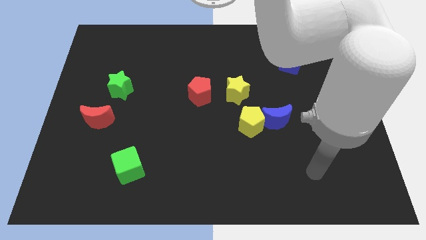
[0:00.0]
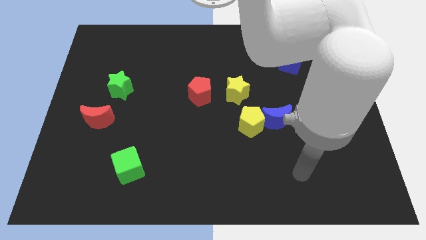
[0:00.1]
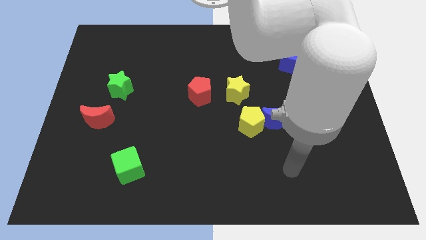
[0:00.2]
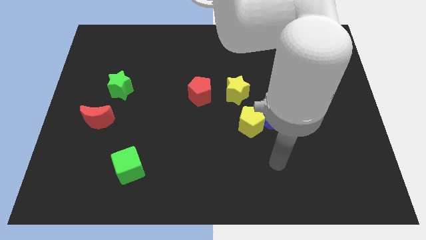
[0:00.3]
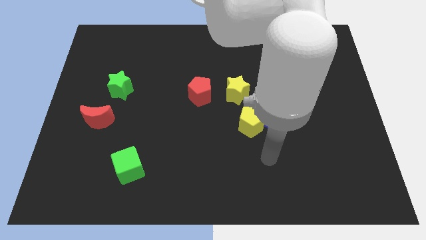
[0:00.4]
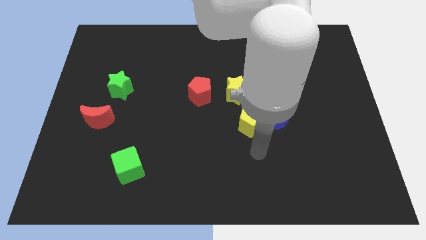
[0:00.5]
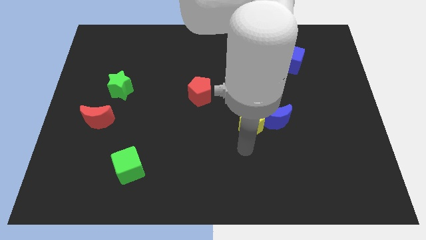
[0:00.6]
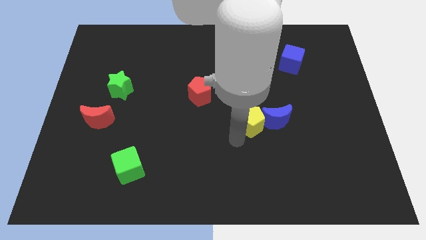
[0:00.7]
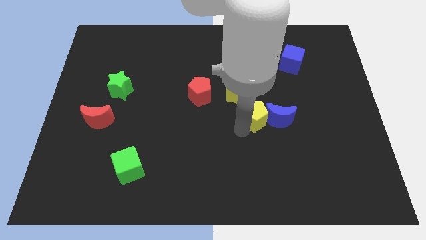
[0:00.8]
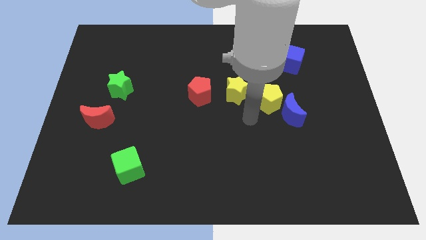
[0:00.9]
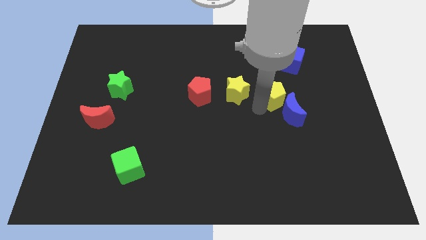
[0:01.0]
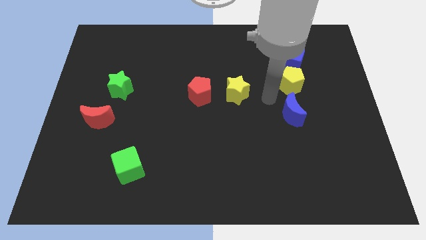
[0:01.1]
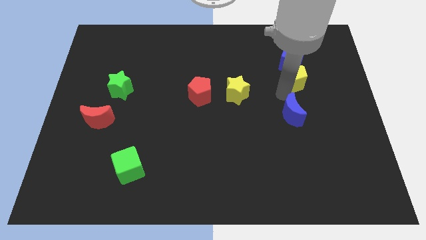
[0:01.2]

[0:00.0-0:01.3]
move the blue moon away from the yellow pentagon

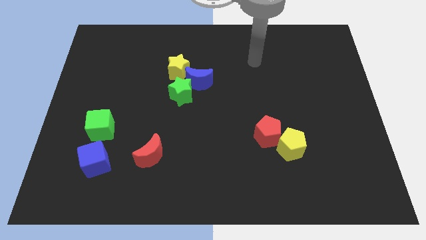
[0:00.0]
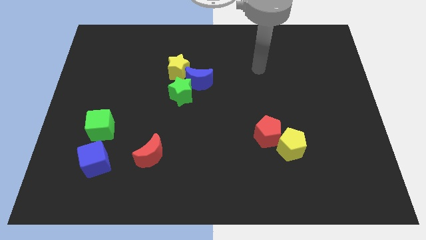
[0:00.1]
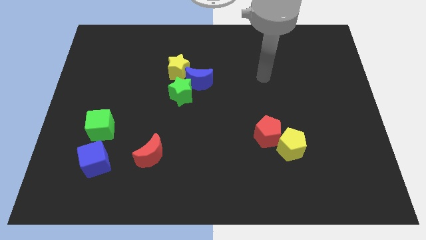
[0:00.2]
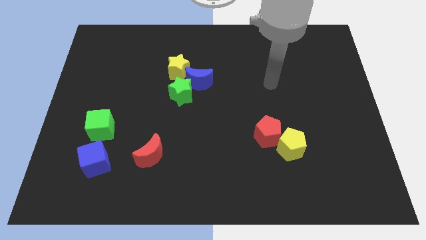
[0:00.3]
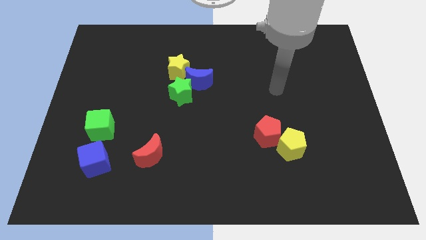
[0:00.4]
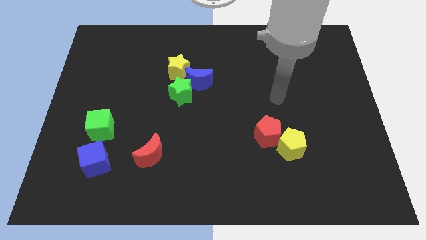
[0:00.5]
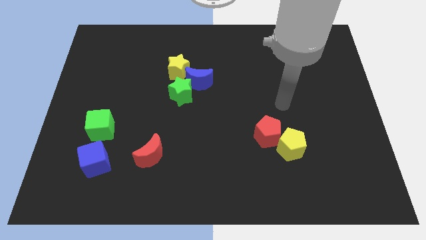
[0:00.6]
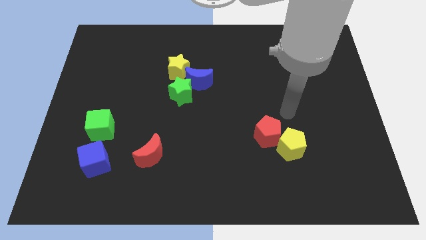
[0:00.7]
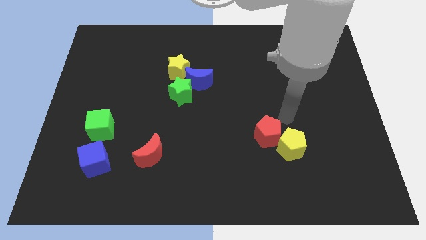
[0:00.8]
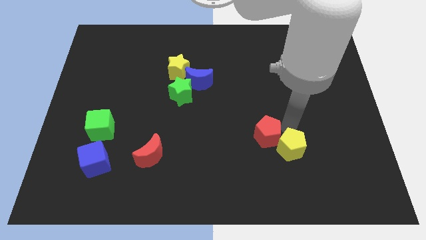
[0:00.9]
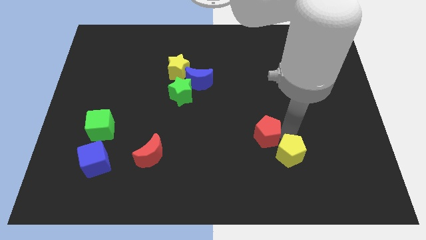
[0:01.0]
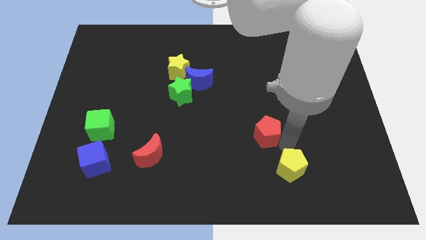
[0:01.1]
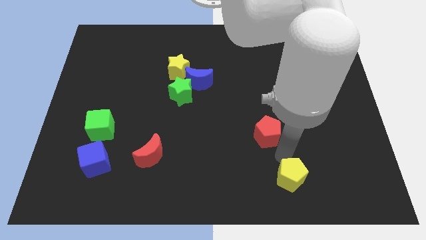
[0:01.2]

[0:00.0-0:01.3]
separate the red pentagon from the yellow pentagon

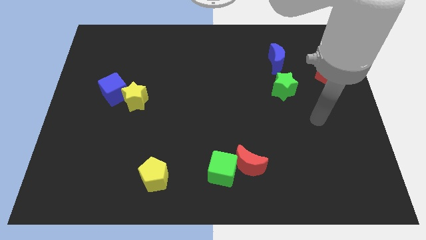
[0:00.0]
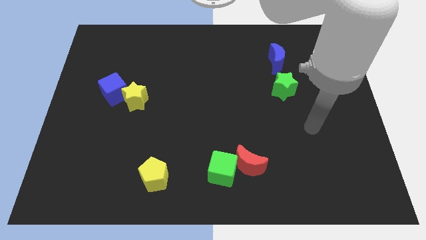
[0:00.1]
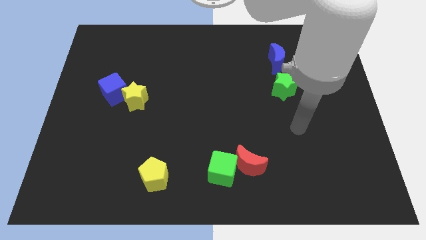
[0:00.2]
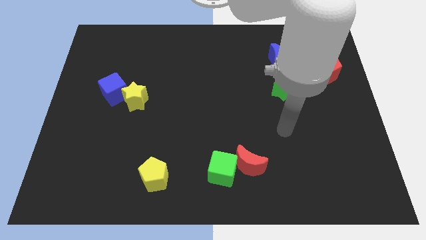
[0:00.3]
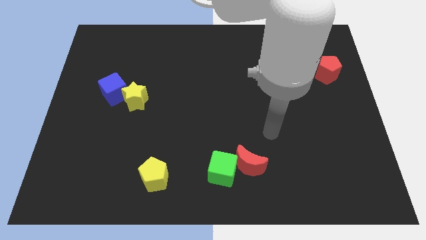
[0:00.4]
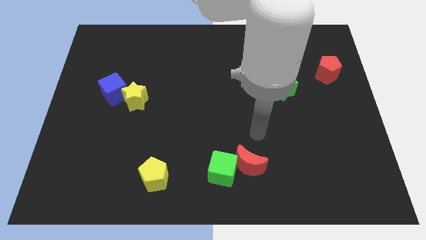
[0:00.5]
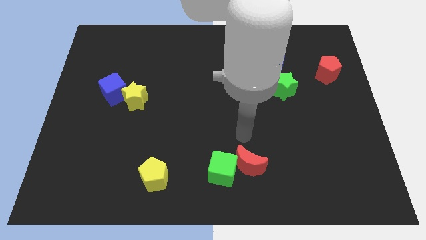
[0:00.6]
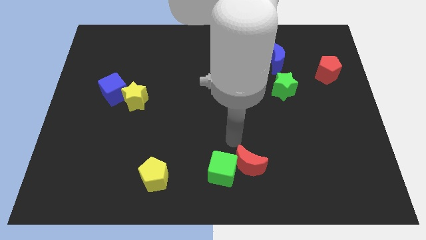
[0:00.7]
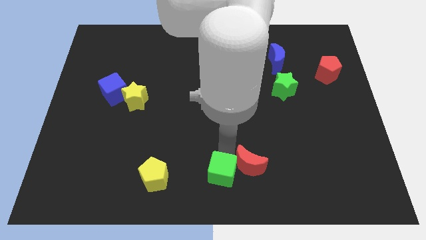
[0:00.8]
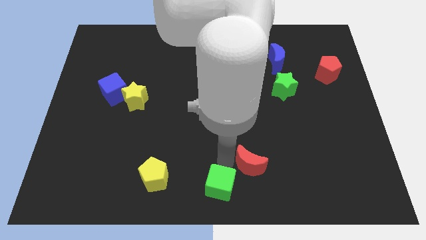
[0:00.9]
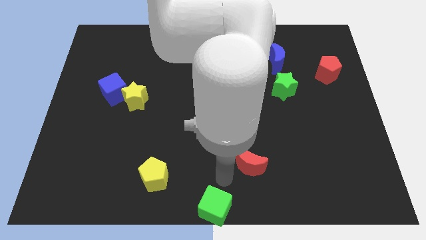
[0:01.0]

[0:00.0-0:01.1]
separate the red moon from the green cube

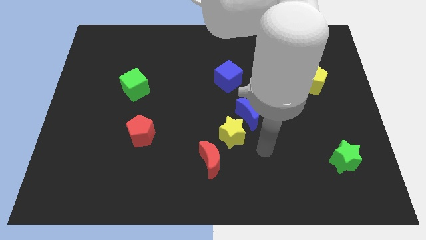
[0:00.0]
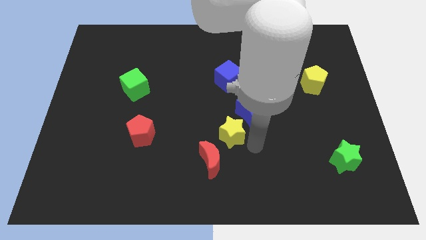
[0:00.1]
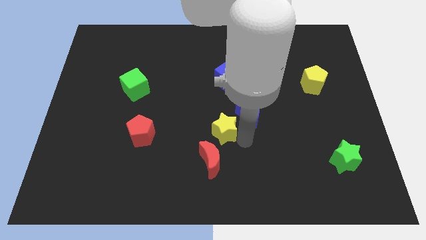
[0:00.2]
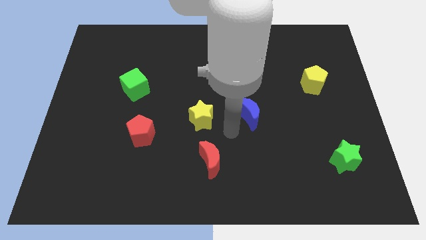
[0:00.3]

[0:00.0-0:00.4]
move the blue moon away from the yellow star

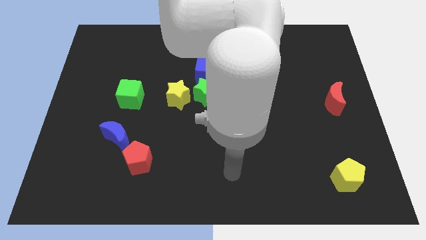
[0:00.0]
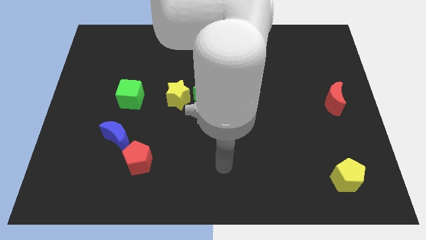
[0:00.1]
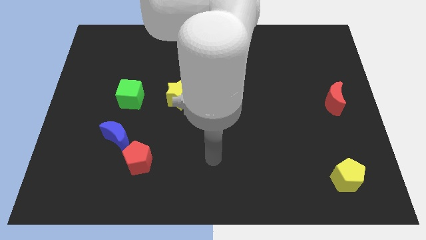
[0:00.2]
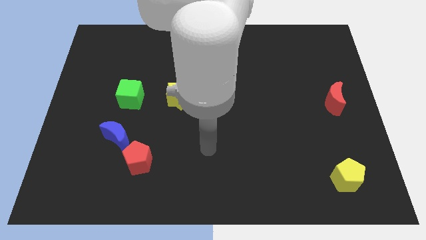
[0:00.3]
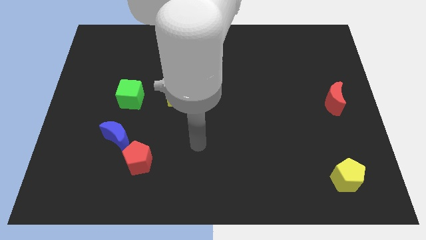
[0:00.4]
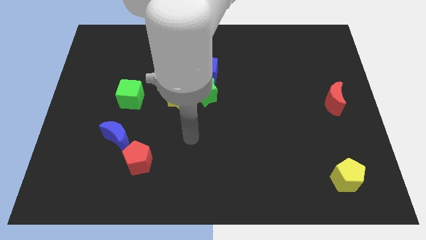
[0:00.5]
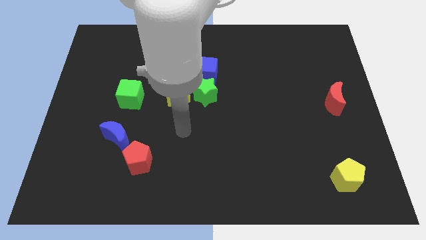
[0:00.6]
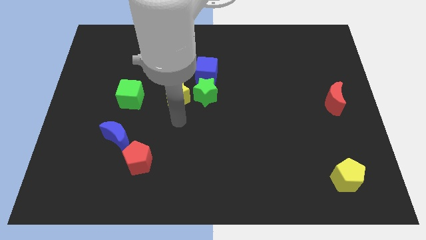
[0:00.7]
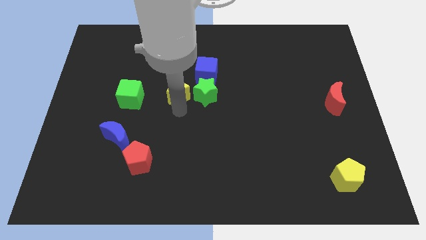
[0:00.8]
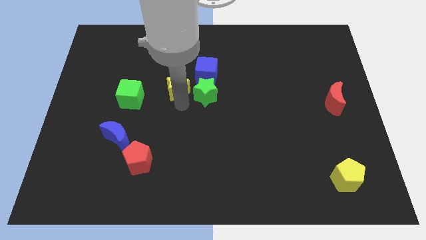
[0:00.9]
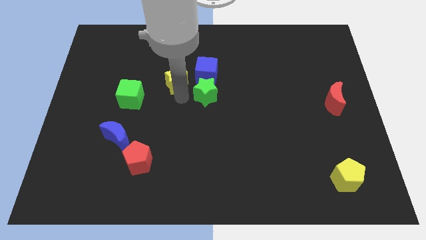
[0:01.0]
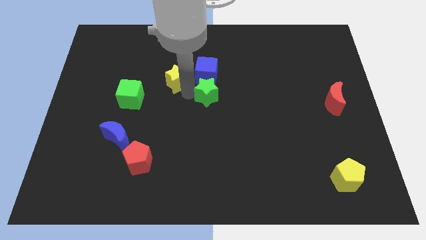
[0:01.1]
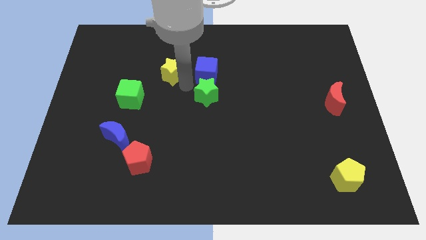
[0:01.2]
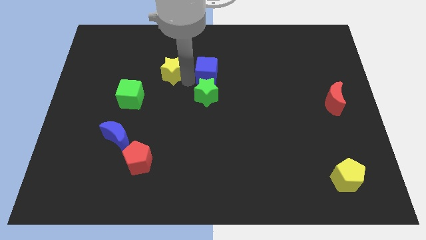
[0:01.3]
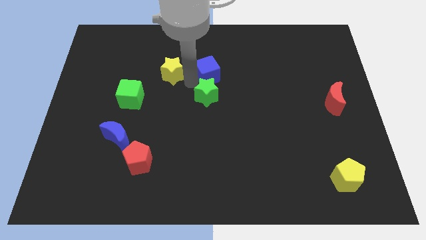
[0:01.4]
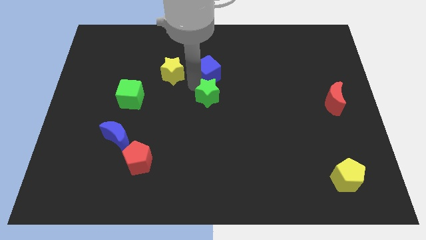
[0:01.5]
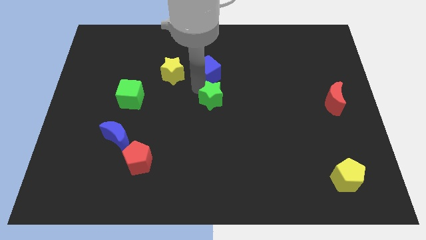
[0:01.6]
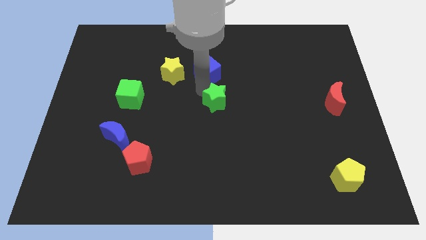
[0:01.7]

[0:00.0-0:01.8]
pull the green star apart from the yellow star and blue cube

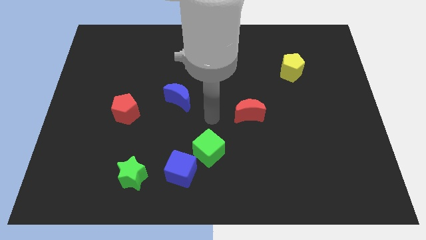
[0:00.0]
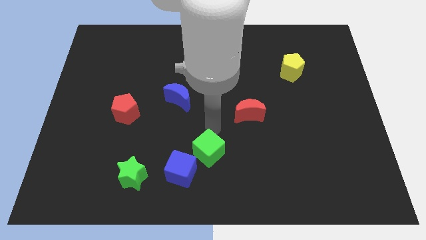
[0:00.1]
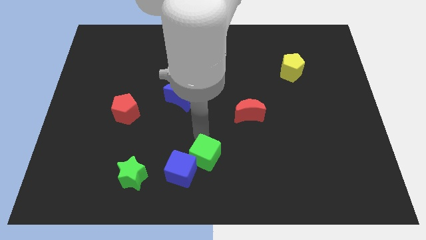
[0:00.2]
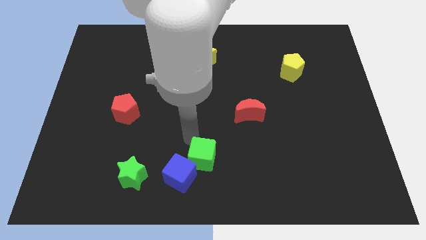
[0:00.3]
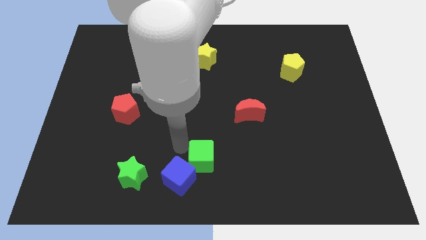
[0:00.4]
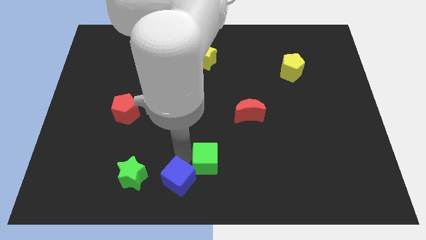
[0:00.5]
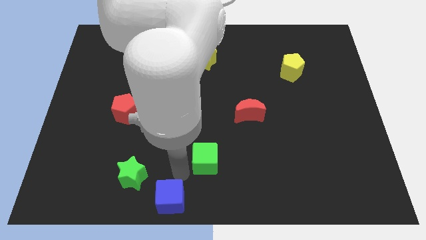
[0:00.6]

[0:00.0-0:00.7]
separate the green cube from the blue cube

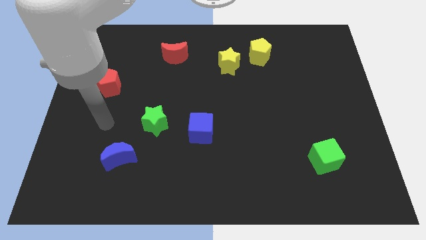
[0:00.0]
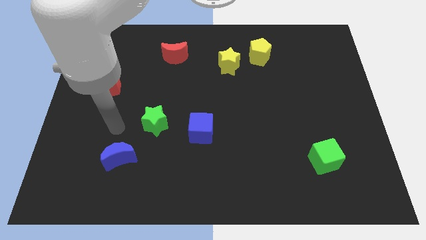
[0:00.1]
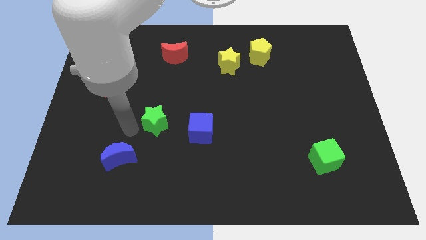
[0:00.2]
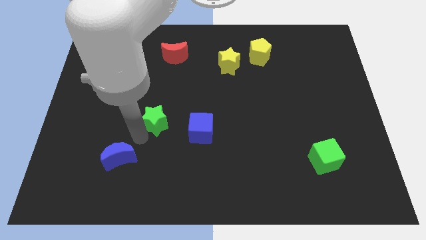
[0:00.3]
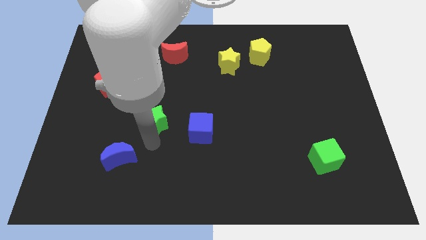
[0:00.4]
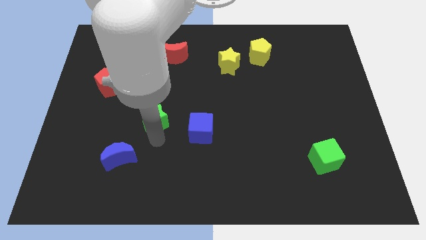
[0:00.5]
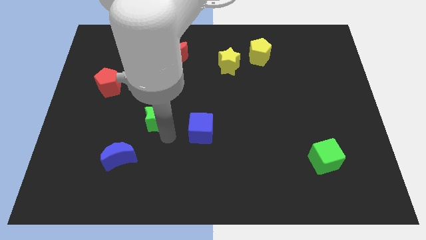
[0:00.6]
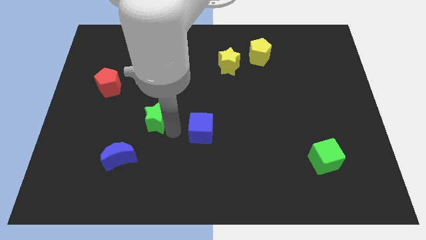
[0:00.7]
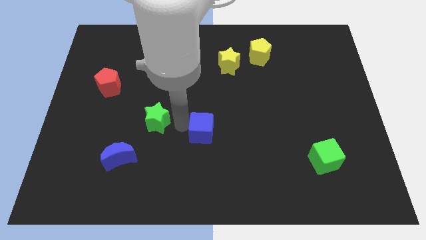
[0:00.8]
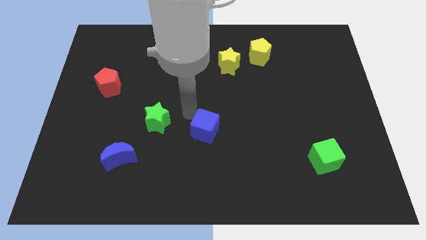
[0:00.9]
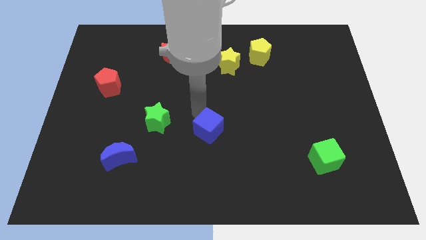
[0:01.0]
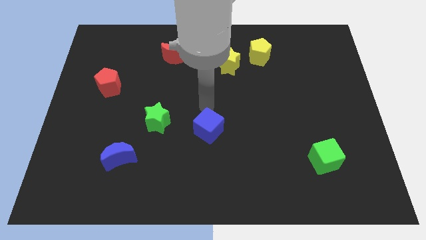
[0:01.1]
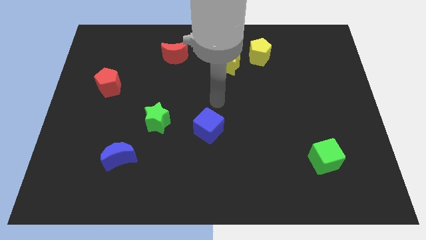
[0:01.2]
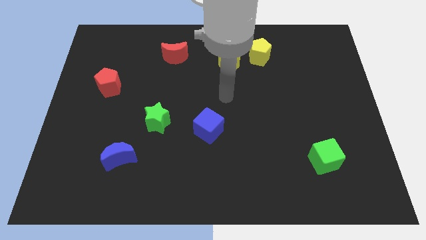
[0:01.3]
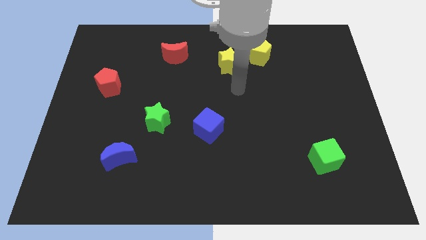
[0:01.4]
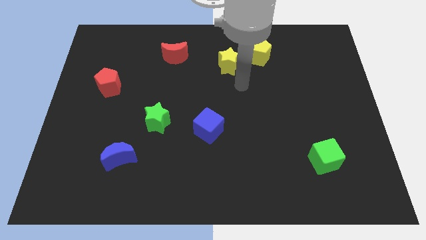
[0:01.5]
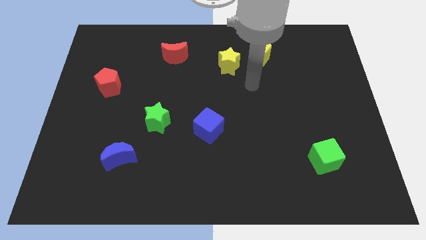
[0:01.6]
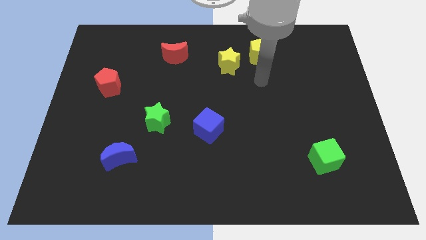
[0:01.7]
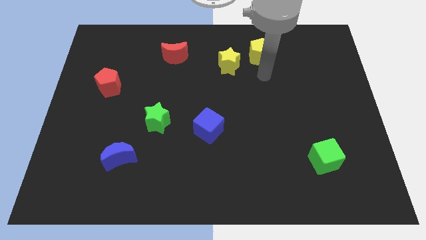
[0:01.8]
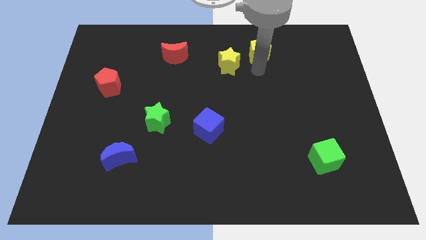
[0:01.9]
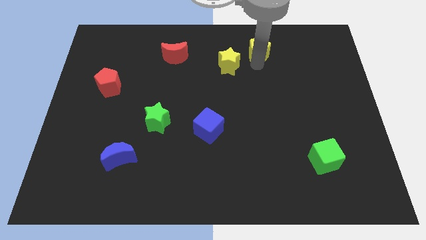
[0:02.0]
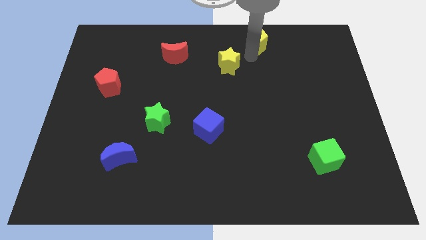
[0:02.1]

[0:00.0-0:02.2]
separate the yellow star from the yellow pentagon

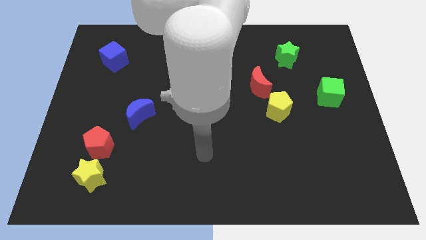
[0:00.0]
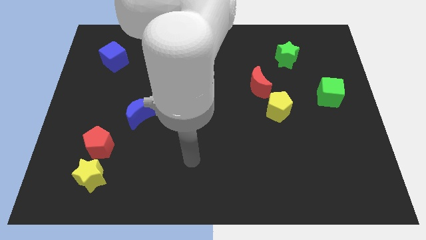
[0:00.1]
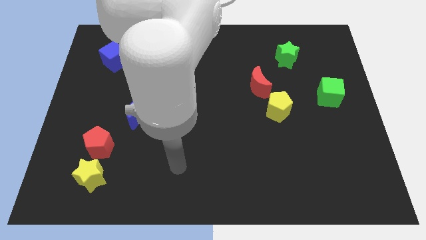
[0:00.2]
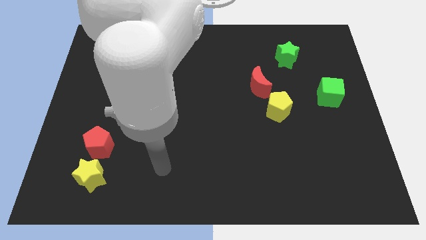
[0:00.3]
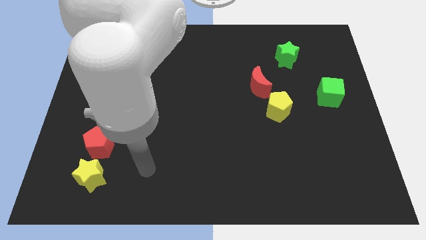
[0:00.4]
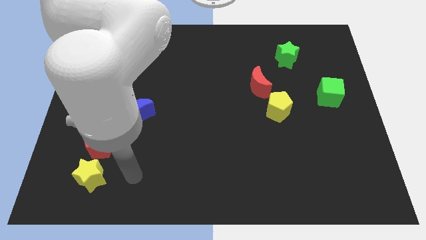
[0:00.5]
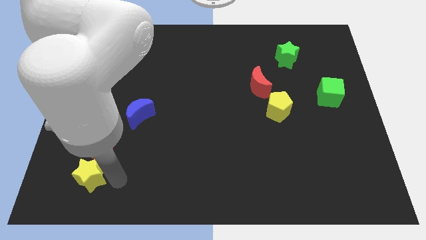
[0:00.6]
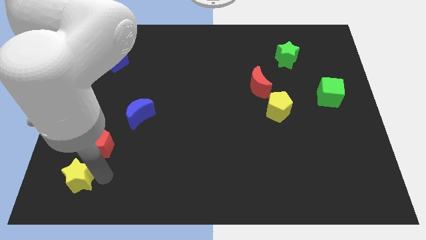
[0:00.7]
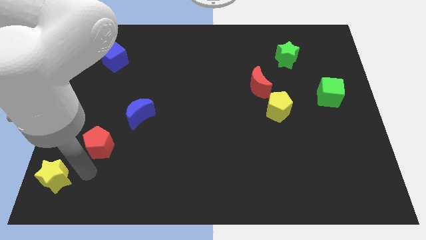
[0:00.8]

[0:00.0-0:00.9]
pull the red pentagon apart from the yellow star
